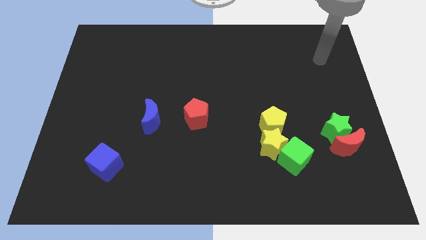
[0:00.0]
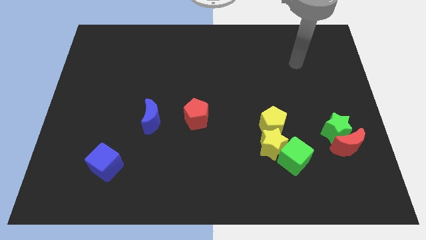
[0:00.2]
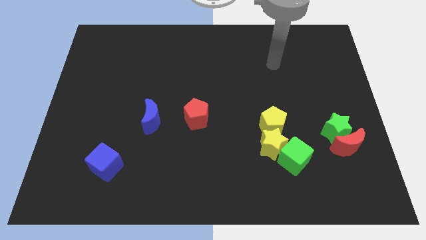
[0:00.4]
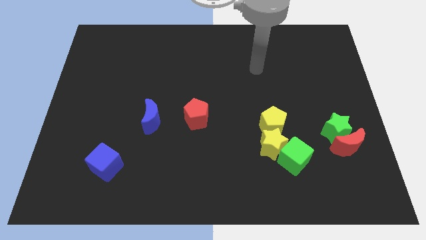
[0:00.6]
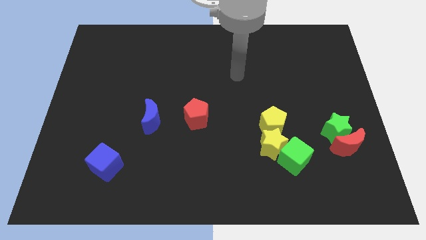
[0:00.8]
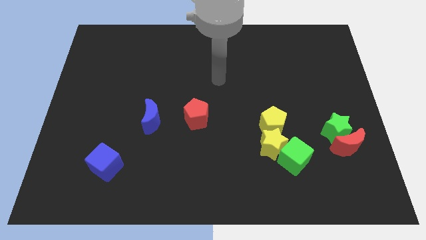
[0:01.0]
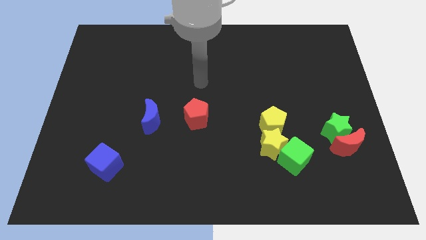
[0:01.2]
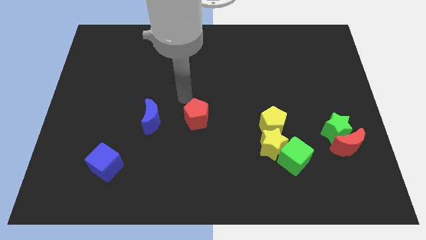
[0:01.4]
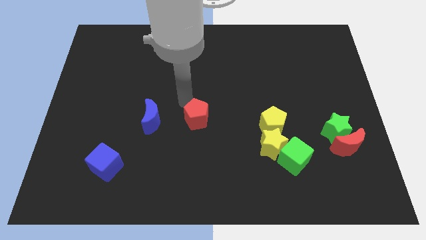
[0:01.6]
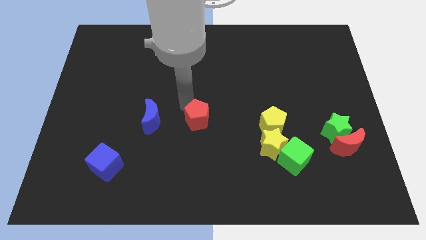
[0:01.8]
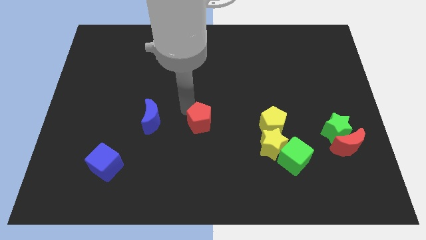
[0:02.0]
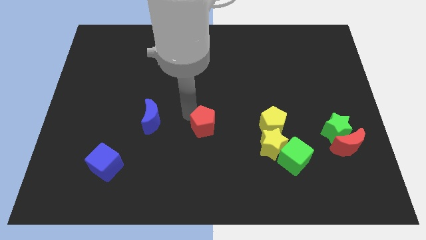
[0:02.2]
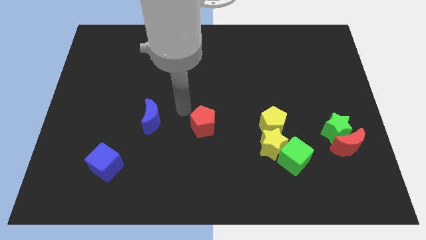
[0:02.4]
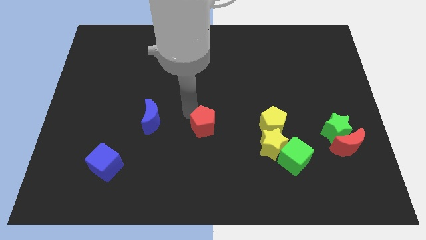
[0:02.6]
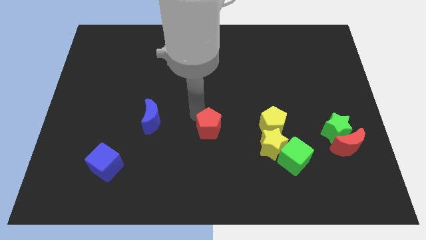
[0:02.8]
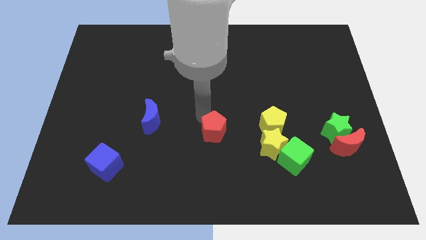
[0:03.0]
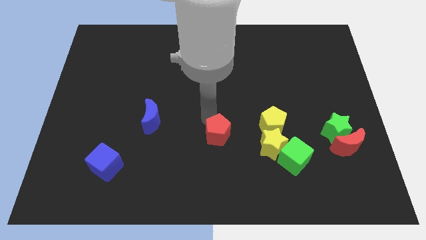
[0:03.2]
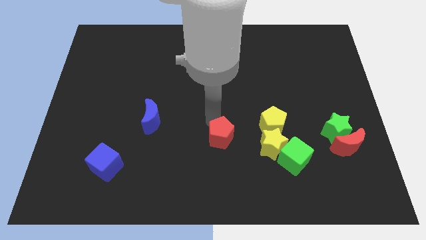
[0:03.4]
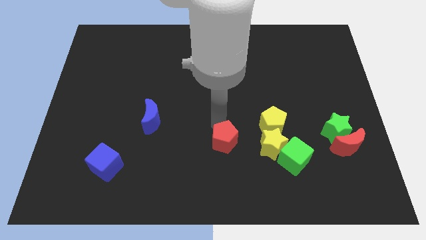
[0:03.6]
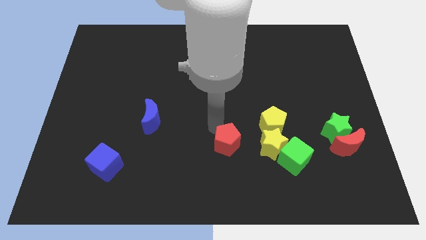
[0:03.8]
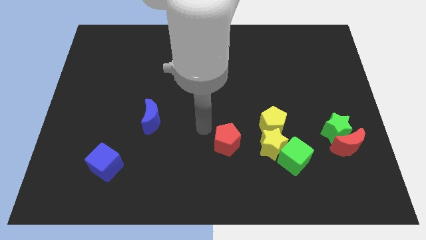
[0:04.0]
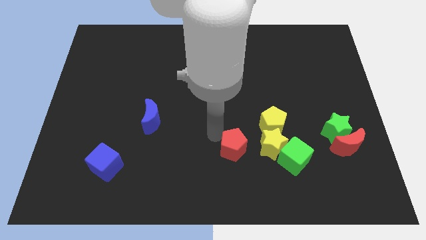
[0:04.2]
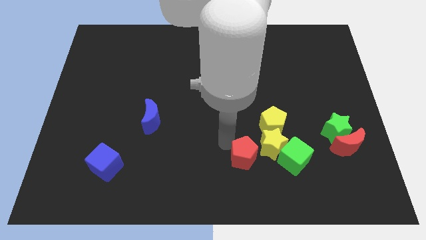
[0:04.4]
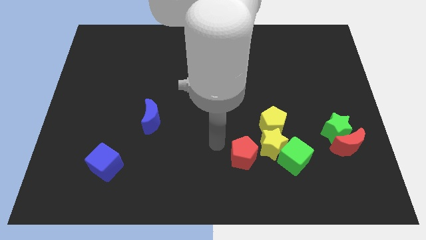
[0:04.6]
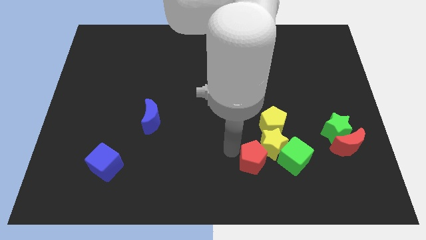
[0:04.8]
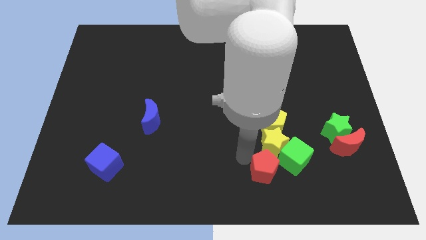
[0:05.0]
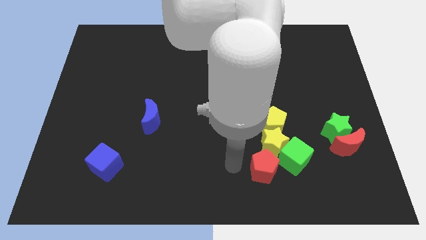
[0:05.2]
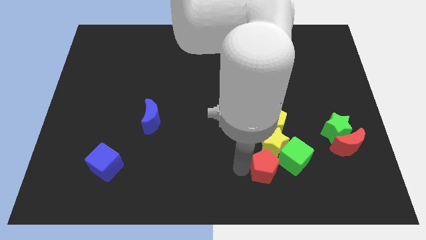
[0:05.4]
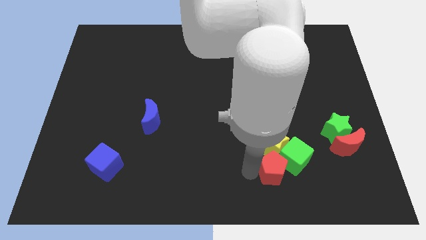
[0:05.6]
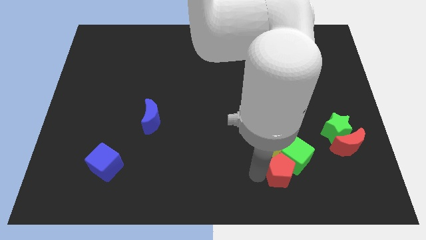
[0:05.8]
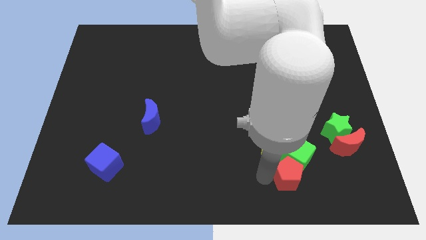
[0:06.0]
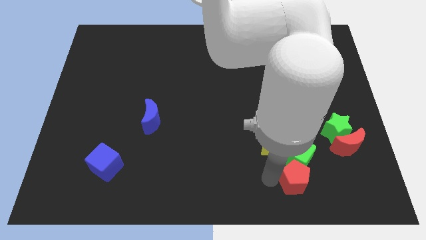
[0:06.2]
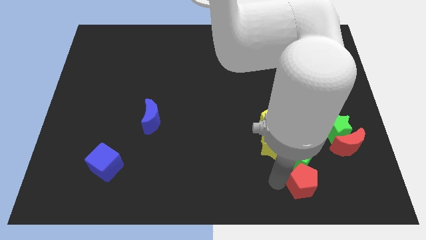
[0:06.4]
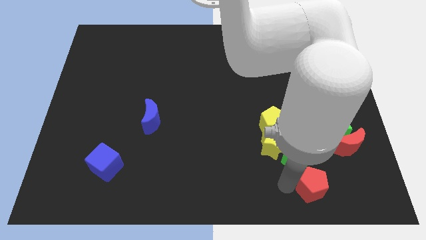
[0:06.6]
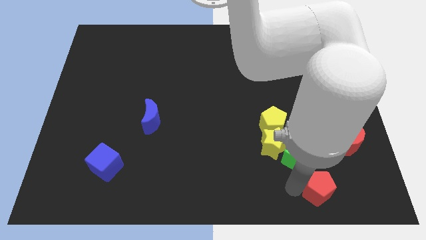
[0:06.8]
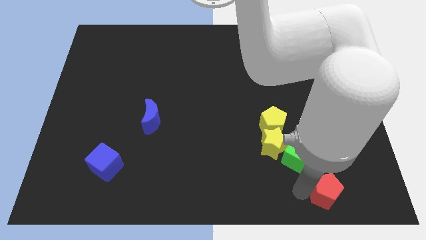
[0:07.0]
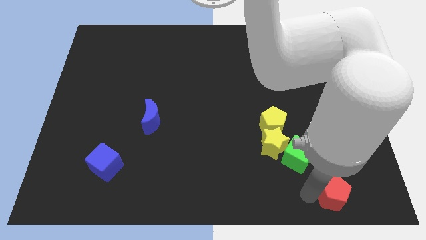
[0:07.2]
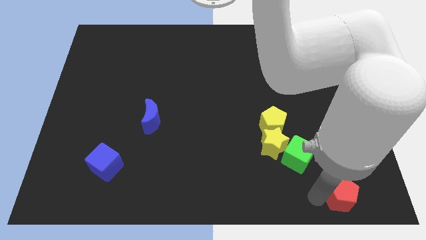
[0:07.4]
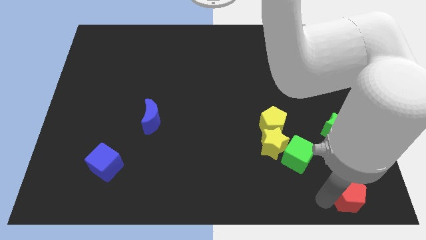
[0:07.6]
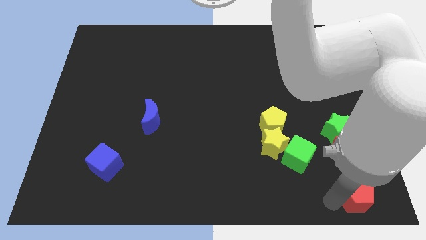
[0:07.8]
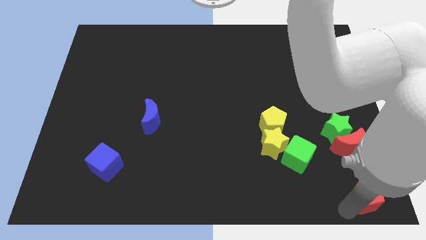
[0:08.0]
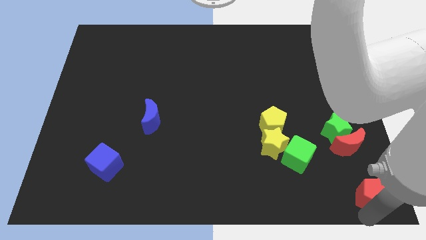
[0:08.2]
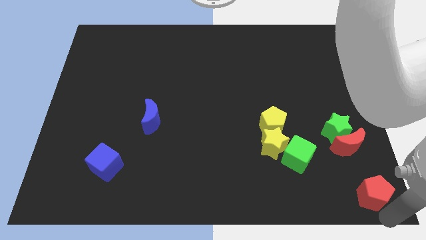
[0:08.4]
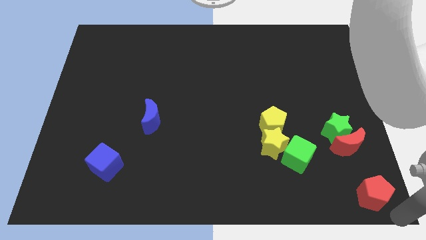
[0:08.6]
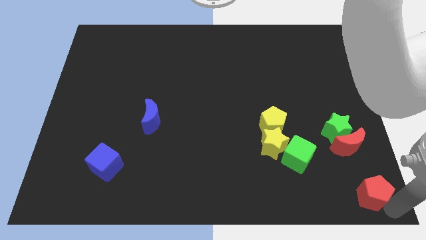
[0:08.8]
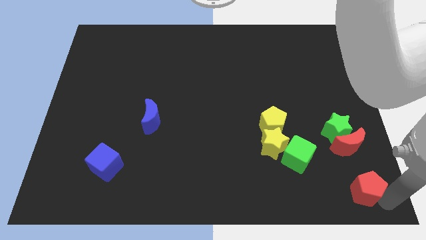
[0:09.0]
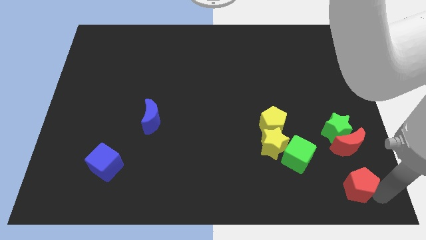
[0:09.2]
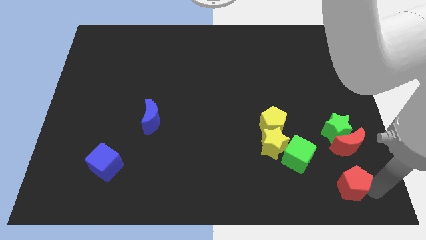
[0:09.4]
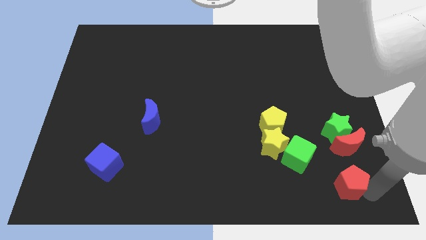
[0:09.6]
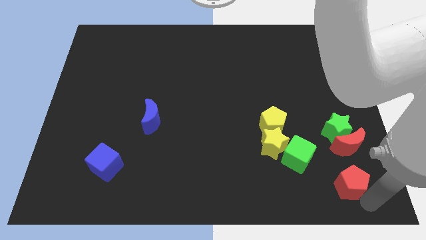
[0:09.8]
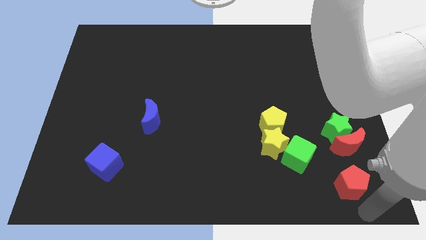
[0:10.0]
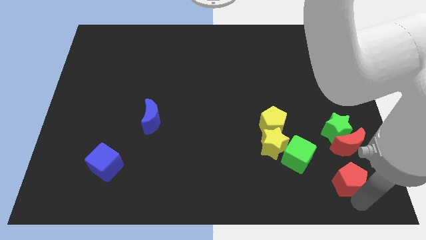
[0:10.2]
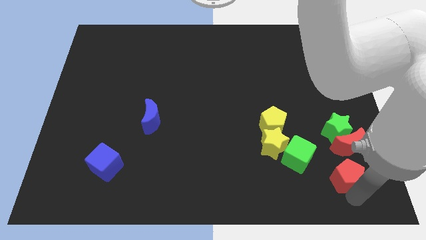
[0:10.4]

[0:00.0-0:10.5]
push the red pentagon to the right side of the green cube

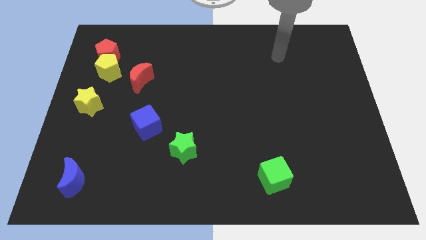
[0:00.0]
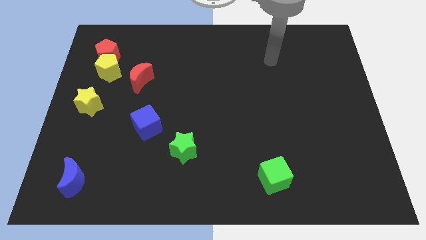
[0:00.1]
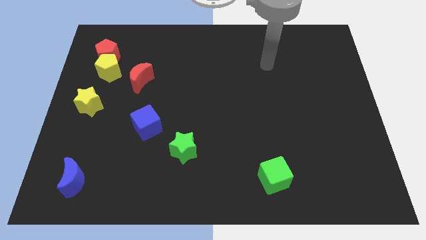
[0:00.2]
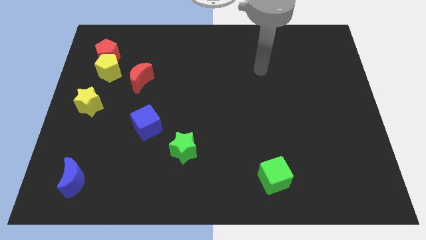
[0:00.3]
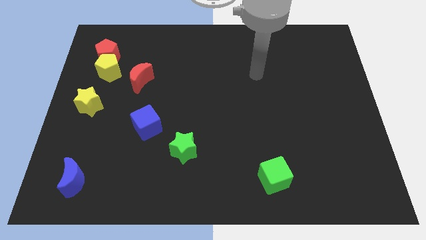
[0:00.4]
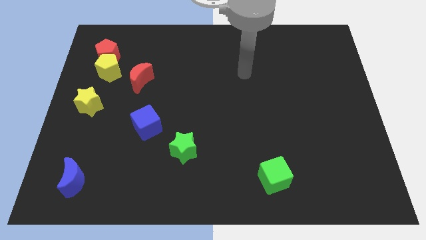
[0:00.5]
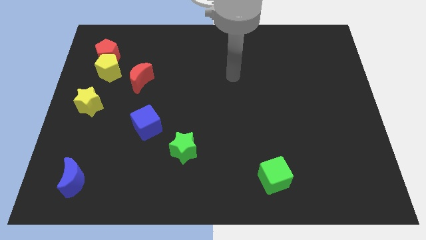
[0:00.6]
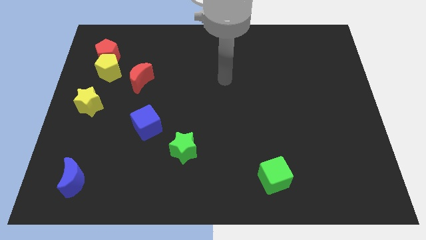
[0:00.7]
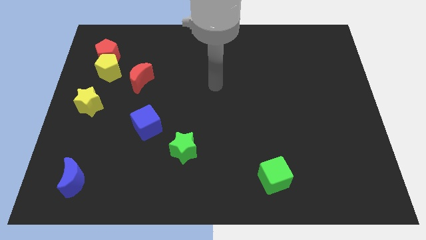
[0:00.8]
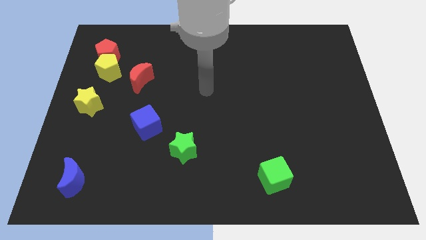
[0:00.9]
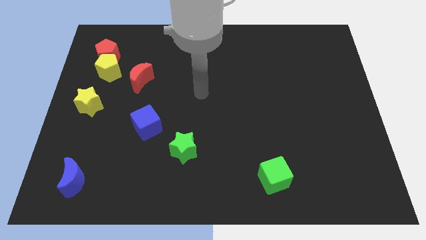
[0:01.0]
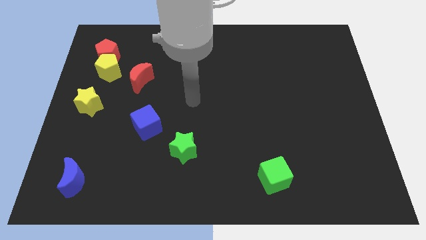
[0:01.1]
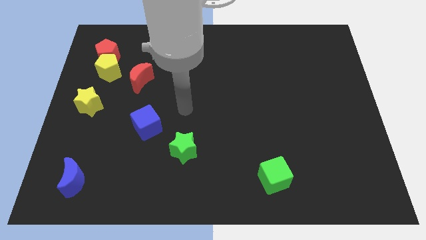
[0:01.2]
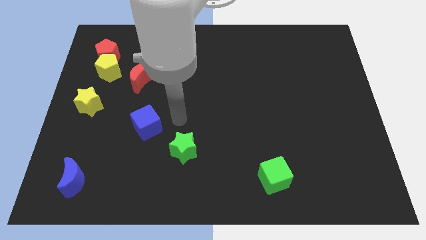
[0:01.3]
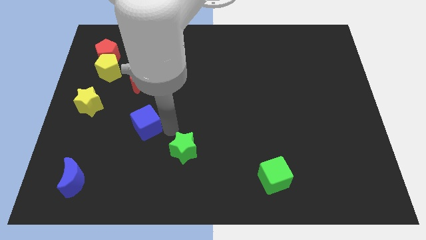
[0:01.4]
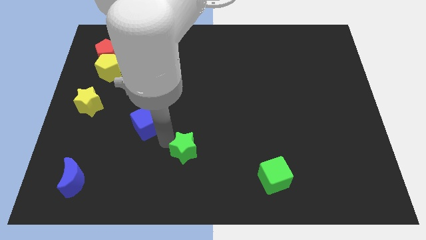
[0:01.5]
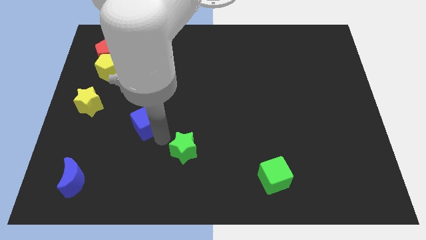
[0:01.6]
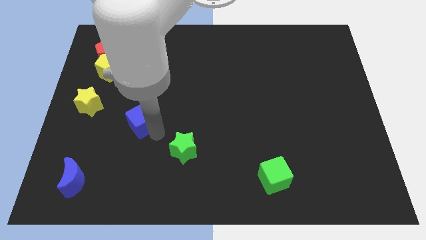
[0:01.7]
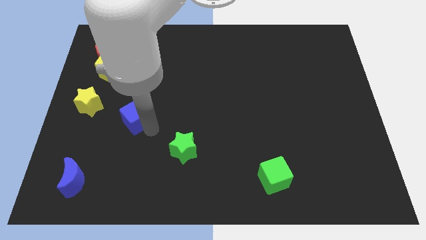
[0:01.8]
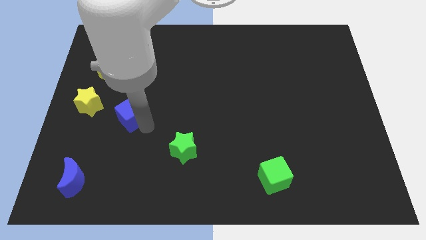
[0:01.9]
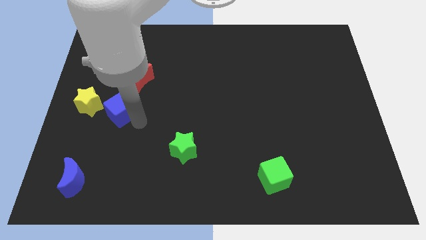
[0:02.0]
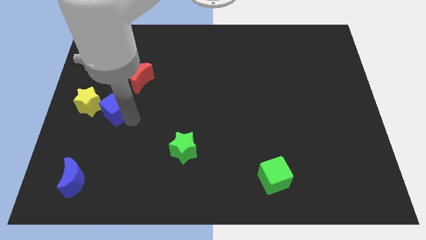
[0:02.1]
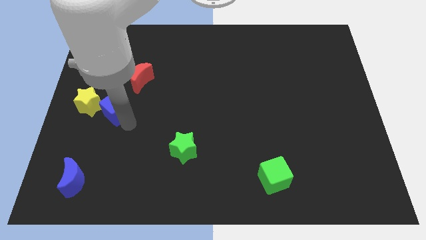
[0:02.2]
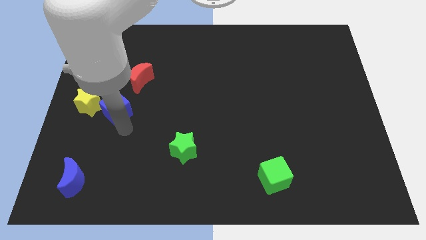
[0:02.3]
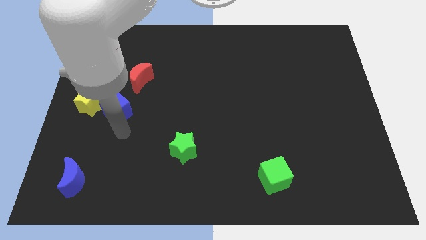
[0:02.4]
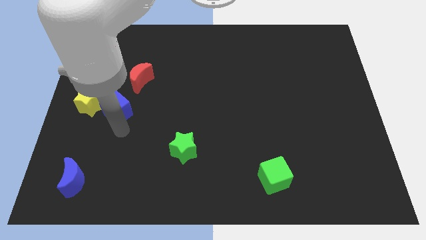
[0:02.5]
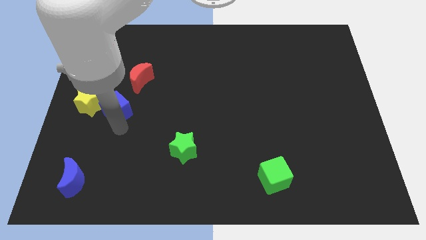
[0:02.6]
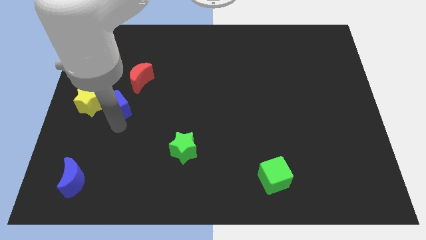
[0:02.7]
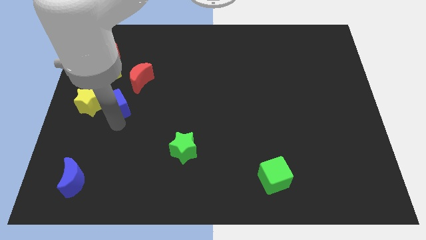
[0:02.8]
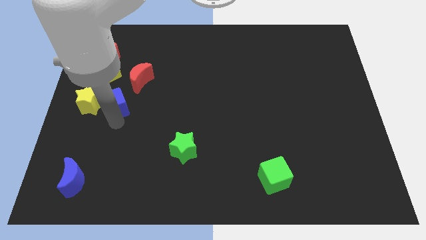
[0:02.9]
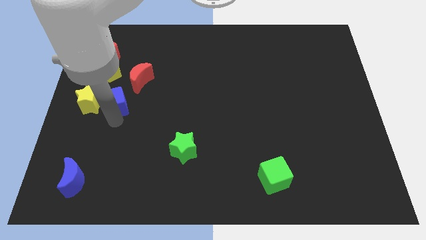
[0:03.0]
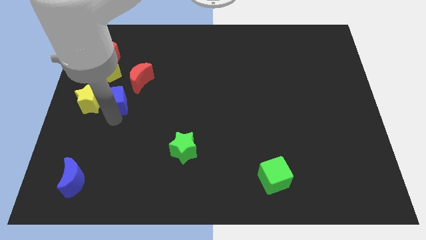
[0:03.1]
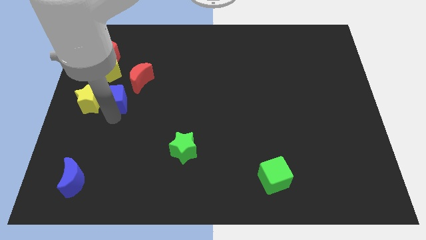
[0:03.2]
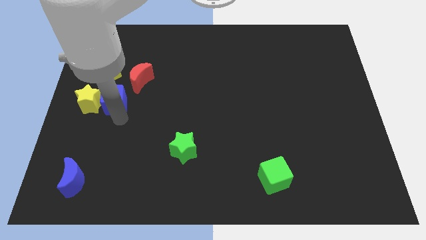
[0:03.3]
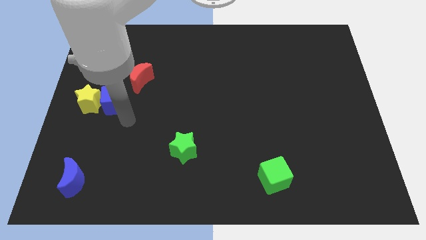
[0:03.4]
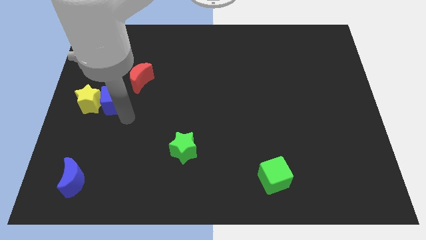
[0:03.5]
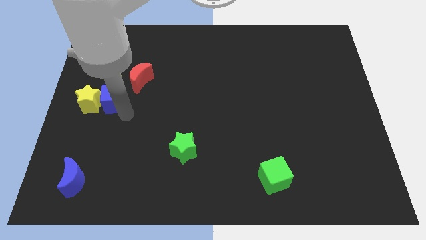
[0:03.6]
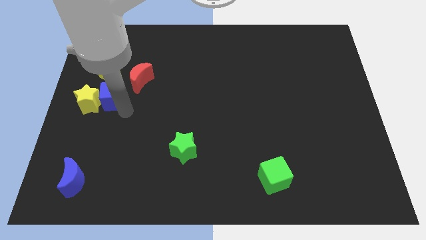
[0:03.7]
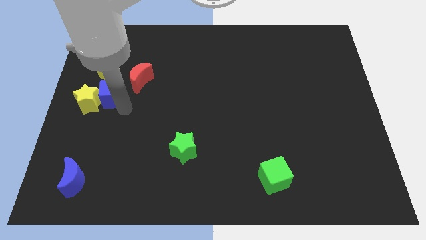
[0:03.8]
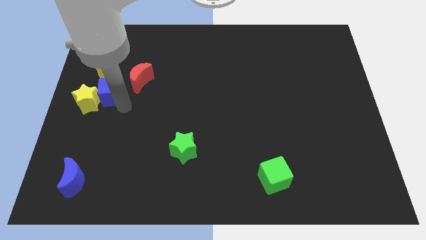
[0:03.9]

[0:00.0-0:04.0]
move the blue cube to the left of the red moon
